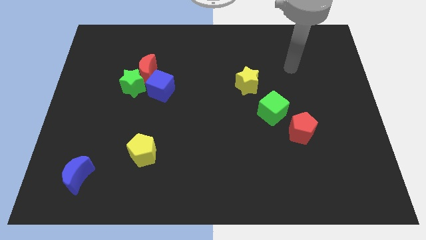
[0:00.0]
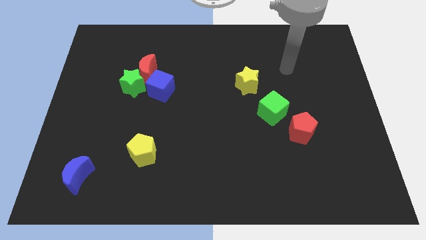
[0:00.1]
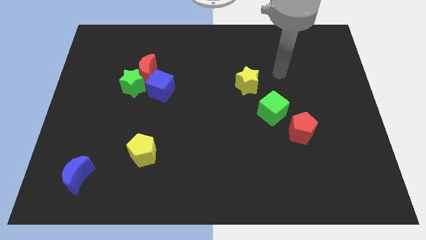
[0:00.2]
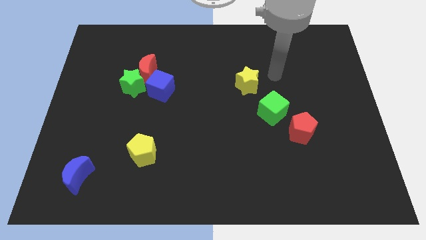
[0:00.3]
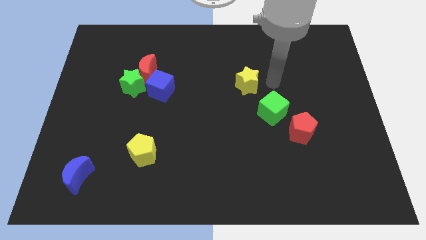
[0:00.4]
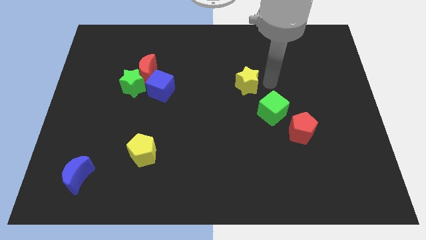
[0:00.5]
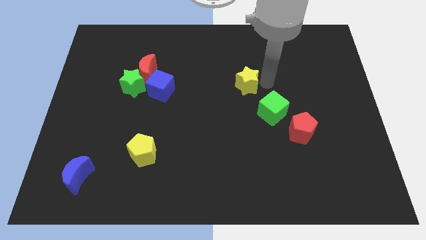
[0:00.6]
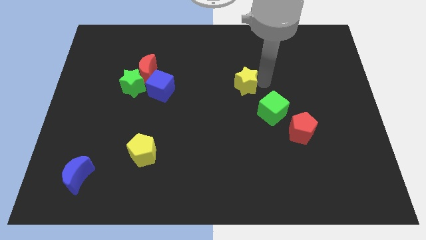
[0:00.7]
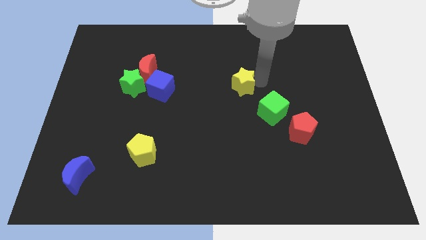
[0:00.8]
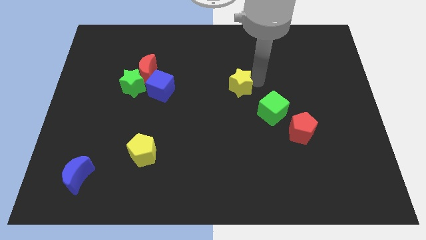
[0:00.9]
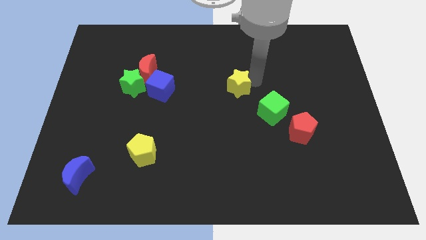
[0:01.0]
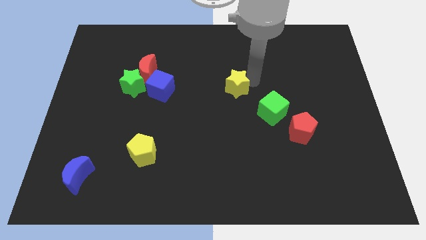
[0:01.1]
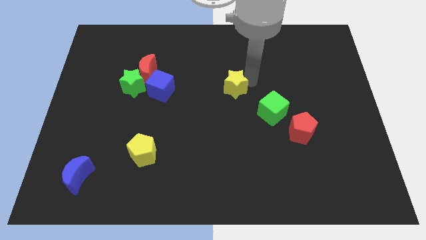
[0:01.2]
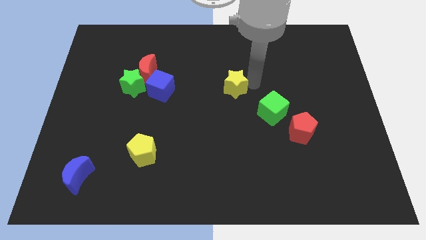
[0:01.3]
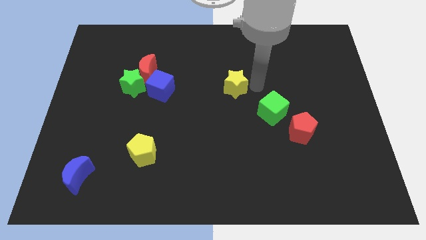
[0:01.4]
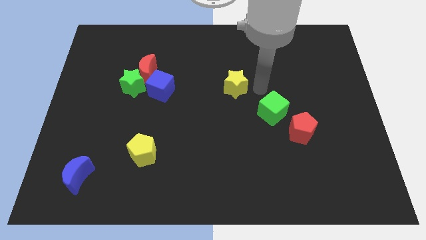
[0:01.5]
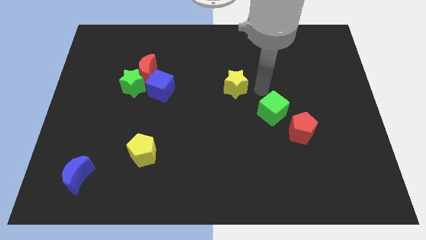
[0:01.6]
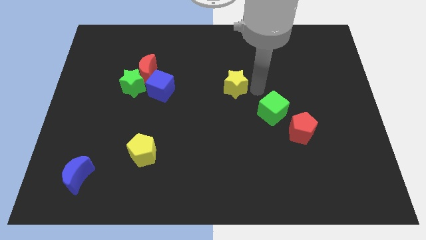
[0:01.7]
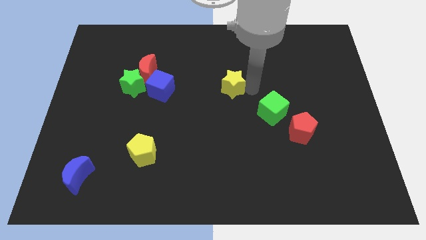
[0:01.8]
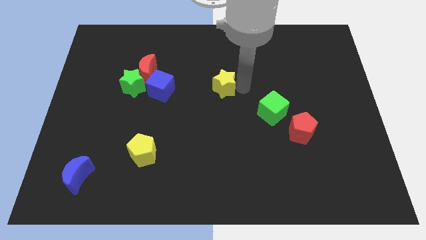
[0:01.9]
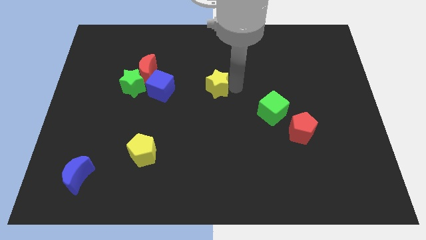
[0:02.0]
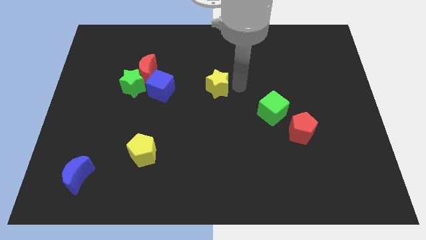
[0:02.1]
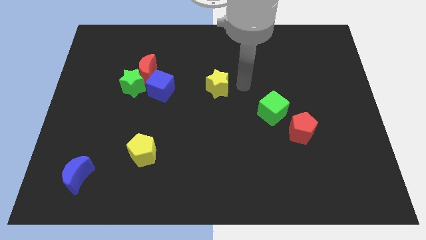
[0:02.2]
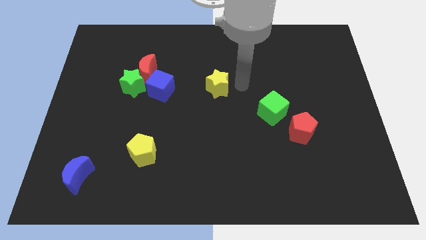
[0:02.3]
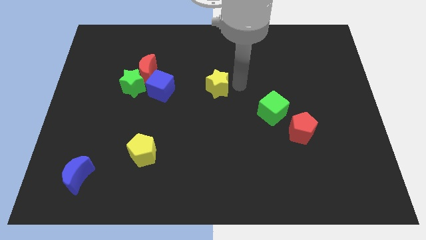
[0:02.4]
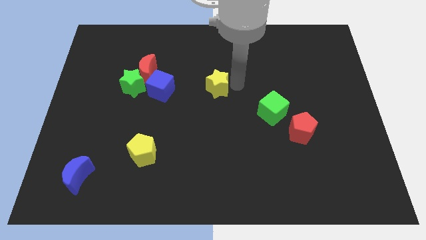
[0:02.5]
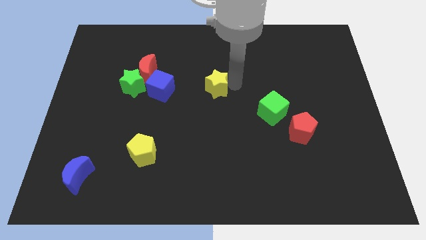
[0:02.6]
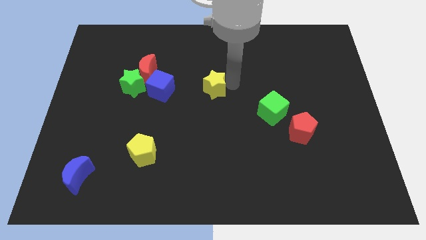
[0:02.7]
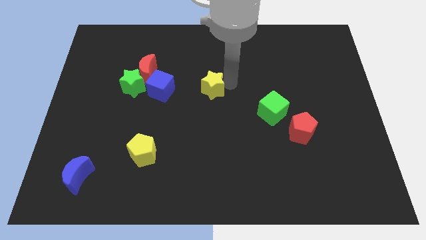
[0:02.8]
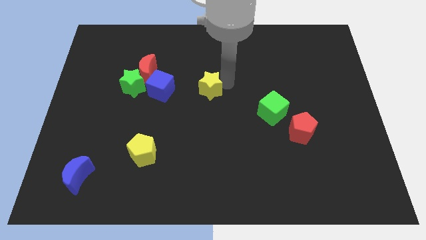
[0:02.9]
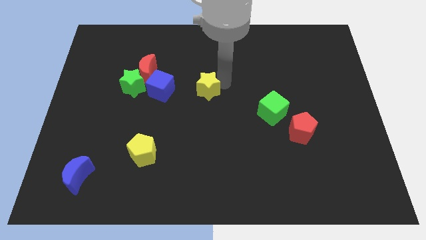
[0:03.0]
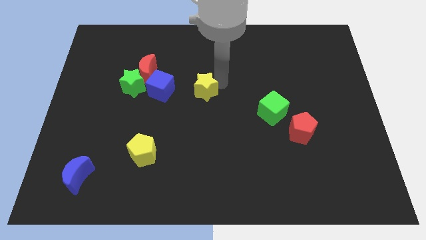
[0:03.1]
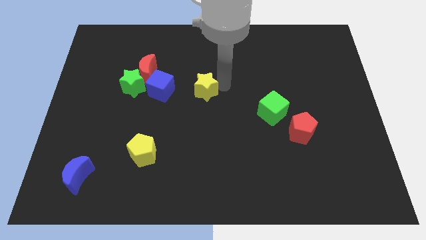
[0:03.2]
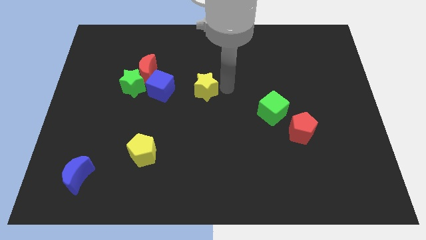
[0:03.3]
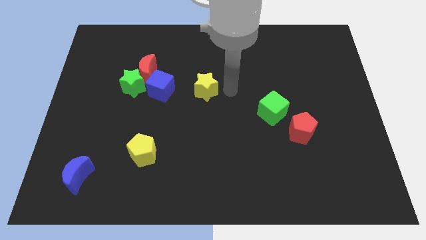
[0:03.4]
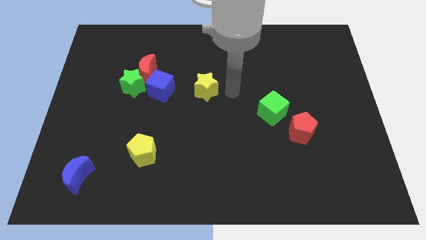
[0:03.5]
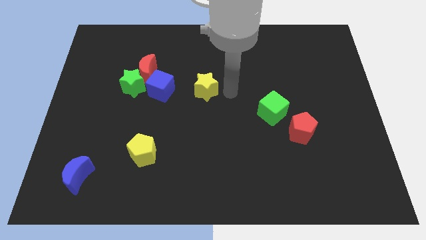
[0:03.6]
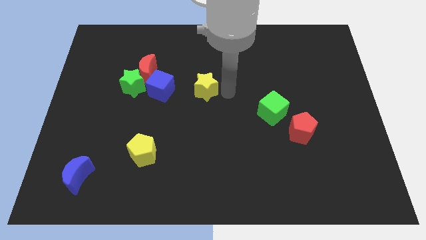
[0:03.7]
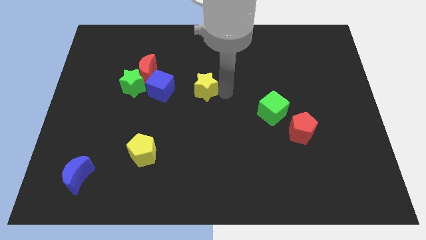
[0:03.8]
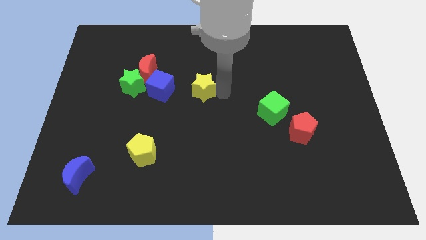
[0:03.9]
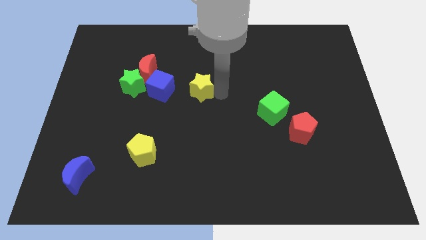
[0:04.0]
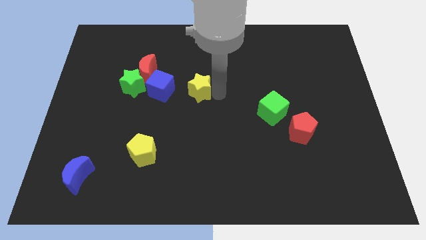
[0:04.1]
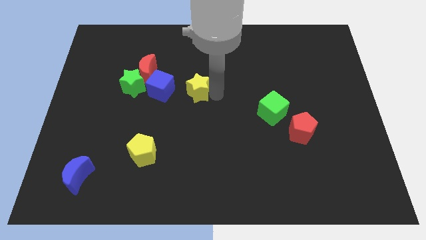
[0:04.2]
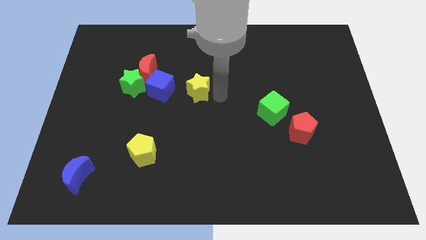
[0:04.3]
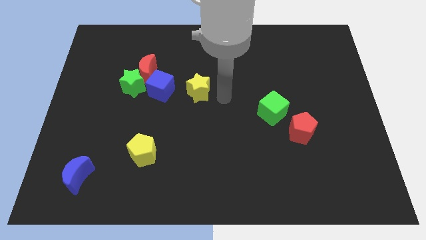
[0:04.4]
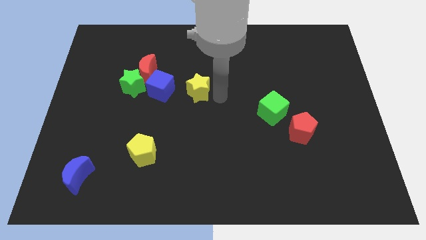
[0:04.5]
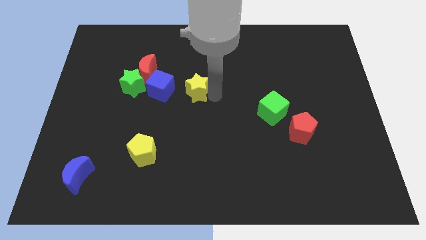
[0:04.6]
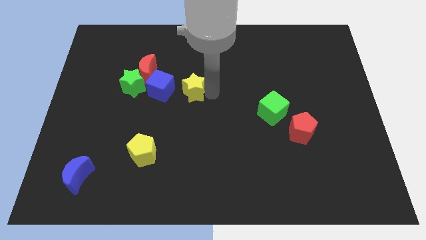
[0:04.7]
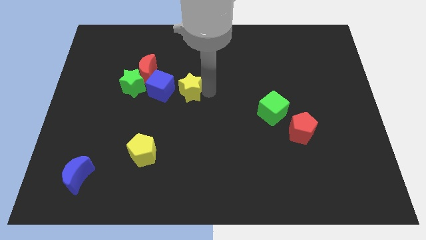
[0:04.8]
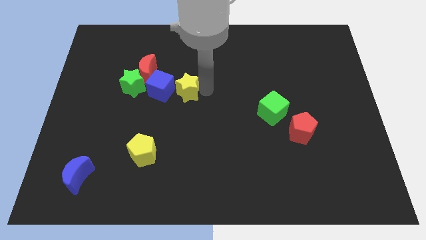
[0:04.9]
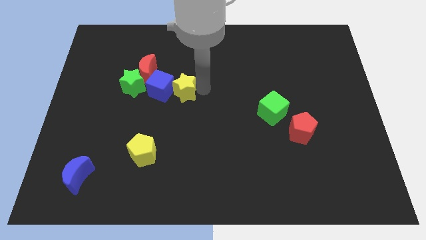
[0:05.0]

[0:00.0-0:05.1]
put the yellow star to the blue cube

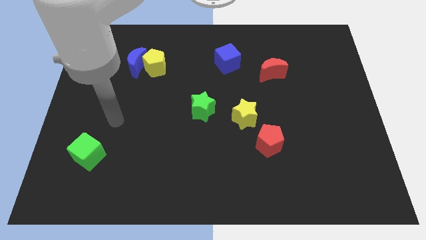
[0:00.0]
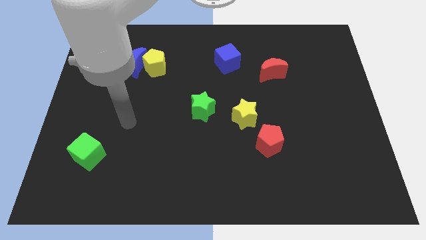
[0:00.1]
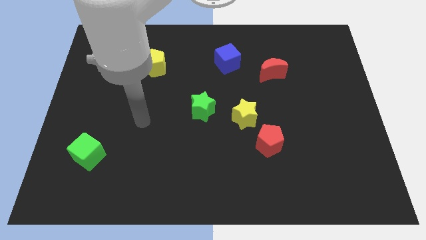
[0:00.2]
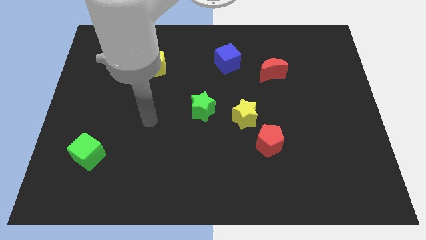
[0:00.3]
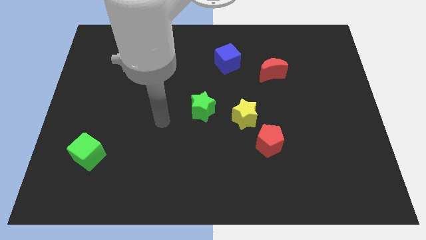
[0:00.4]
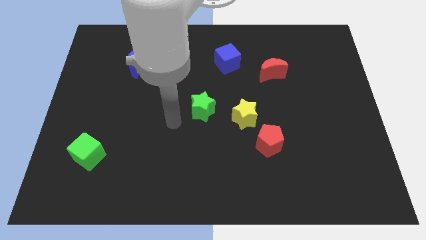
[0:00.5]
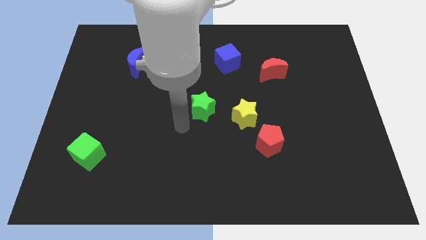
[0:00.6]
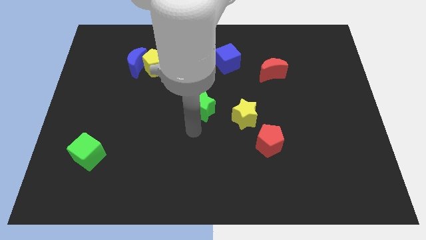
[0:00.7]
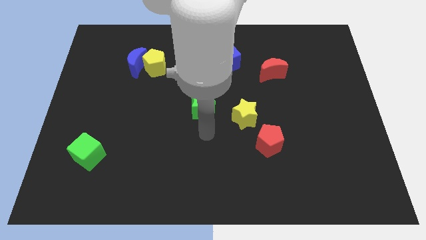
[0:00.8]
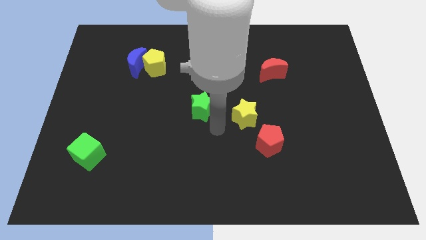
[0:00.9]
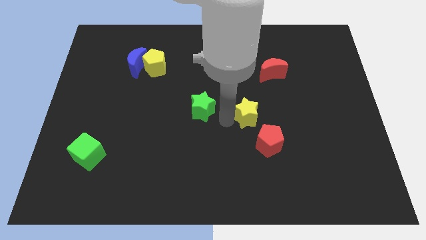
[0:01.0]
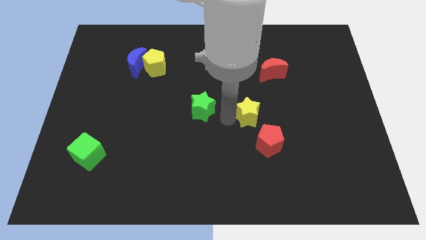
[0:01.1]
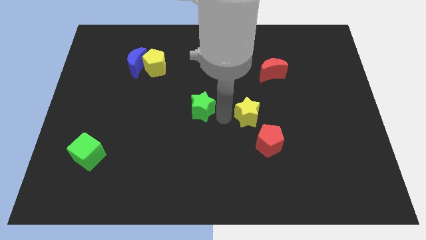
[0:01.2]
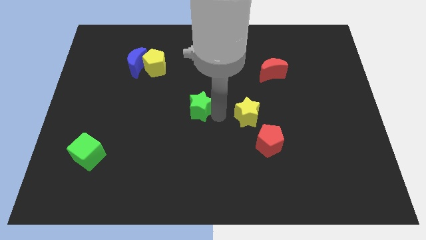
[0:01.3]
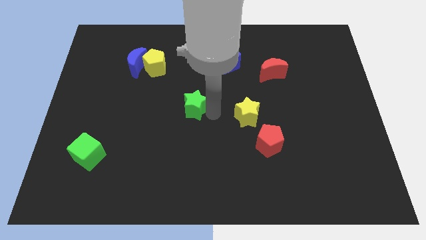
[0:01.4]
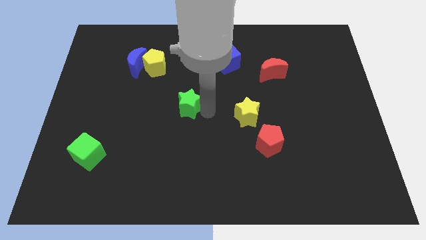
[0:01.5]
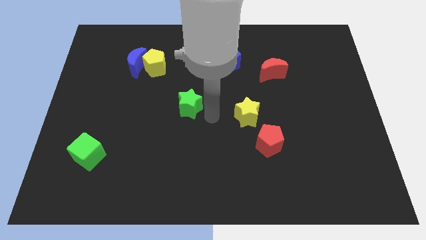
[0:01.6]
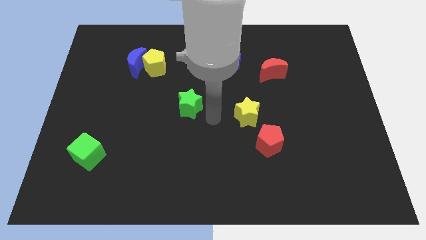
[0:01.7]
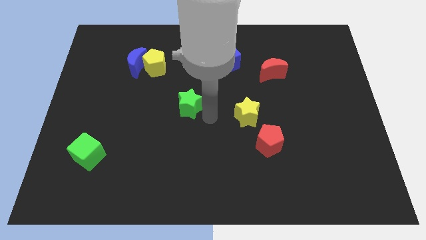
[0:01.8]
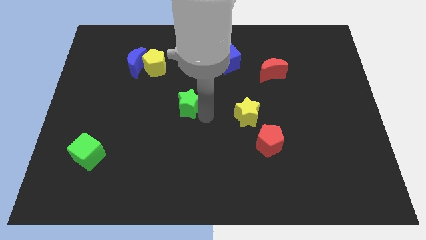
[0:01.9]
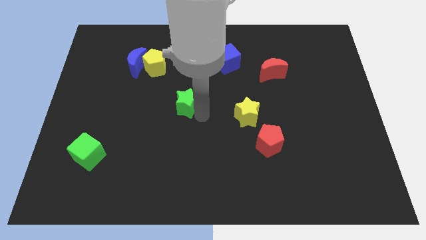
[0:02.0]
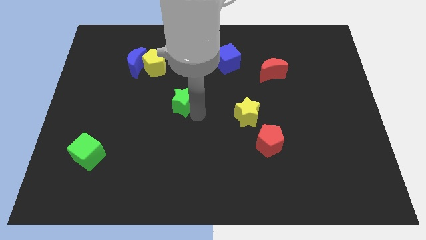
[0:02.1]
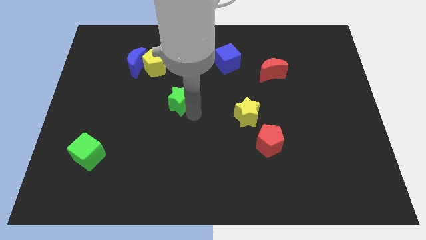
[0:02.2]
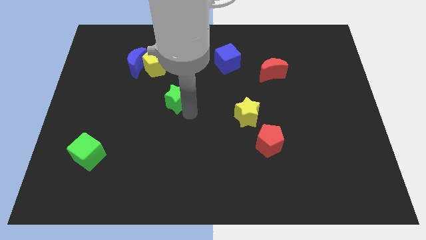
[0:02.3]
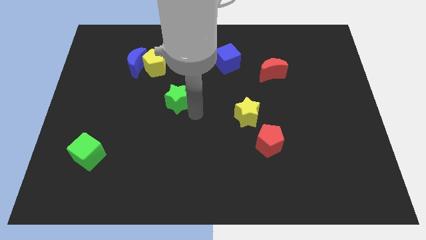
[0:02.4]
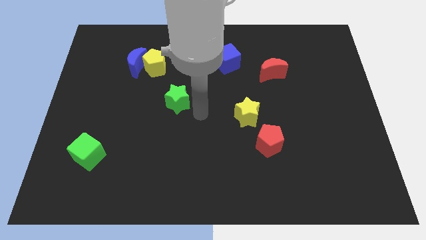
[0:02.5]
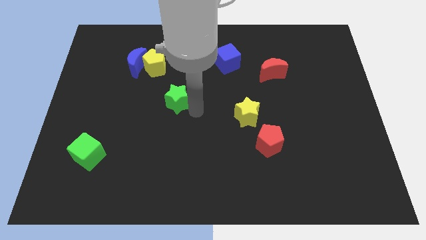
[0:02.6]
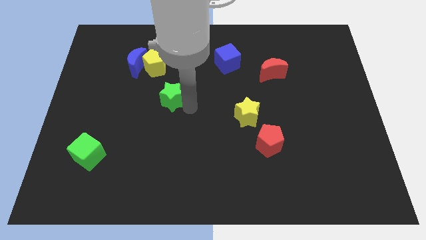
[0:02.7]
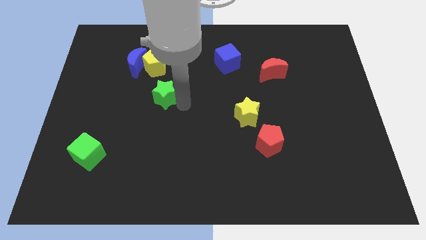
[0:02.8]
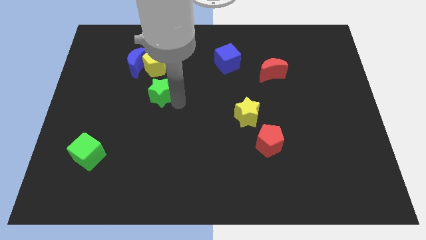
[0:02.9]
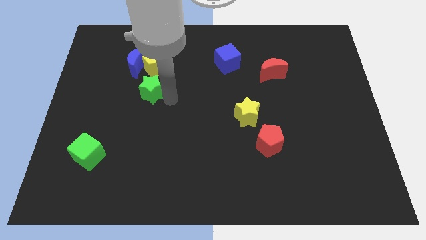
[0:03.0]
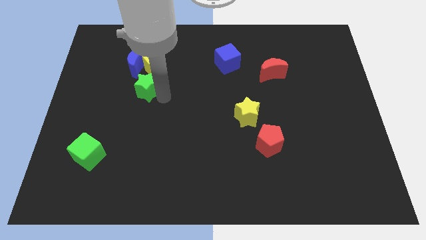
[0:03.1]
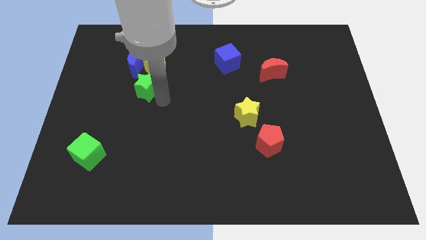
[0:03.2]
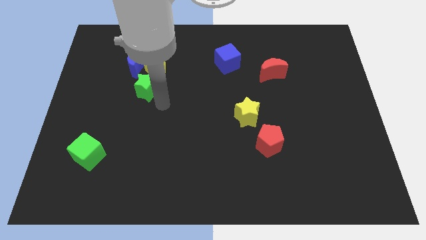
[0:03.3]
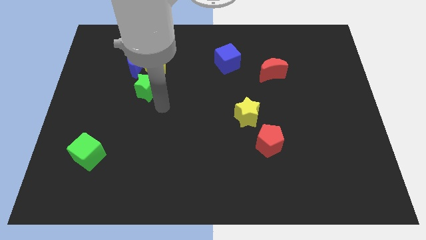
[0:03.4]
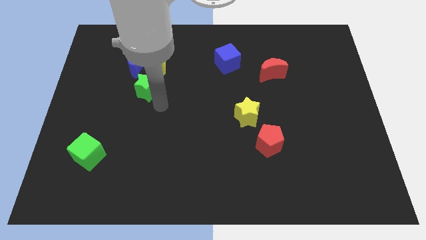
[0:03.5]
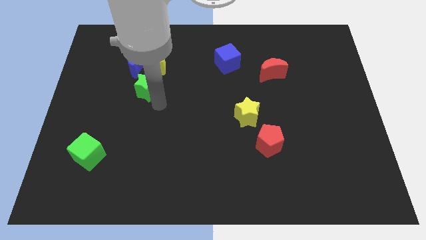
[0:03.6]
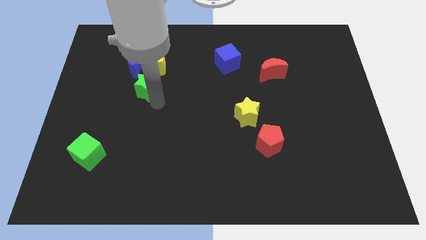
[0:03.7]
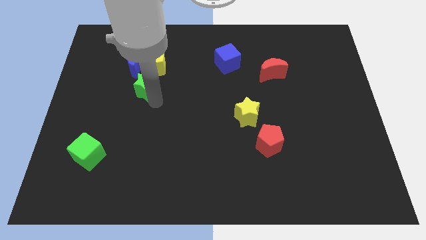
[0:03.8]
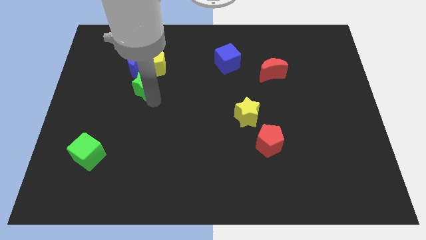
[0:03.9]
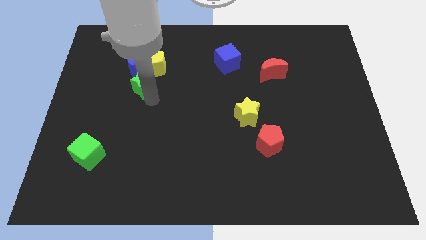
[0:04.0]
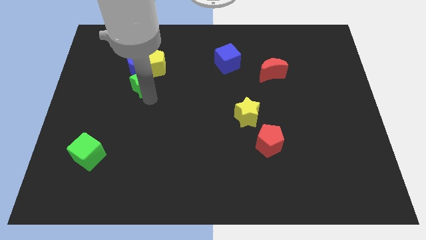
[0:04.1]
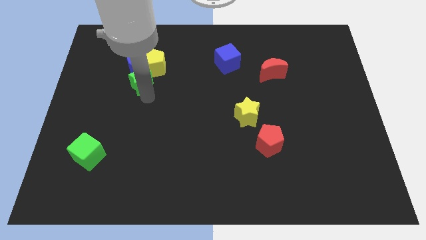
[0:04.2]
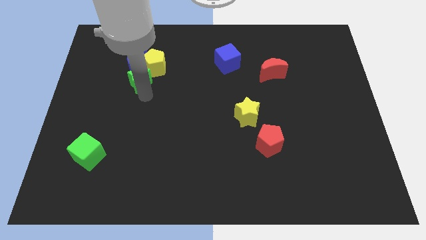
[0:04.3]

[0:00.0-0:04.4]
move the green star close to the blue moon
